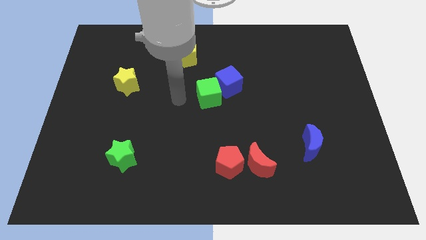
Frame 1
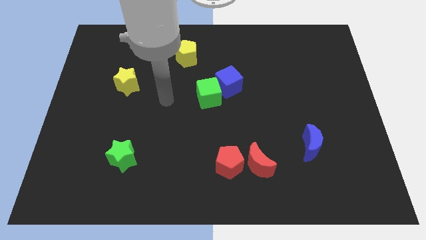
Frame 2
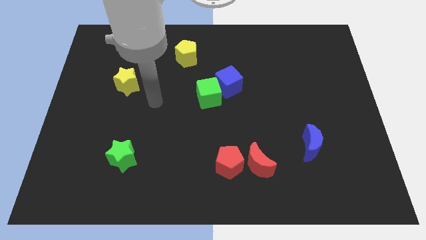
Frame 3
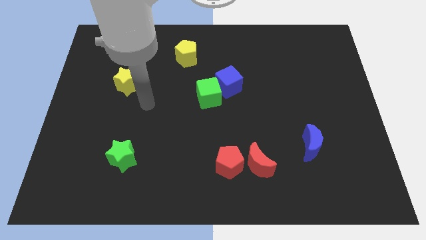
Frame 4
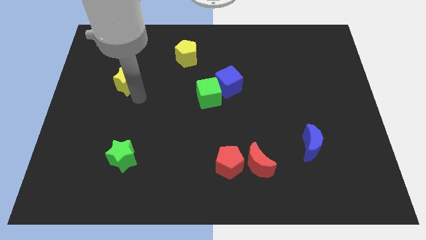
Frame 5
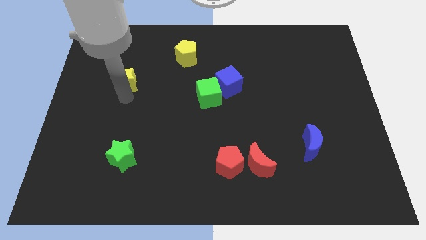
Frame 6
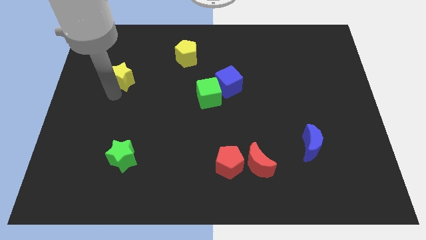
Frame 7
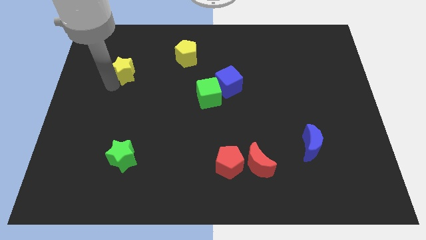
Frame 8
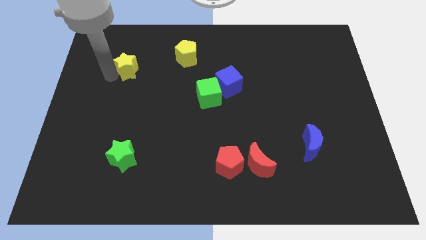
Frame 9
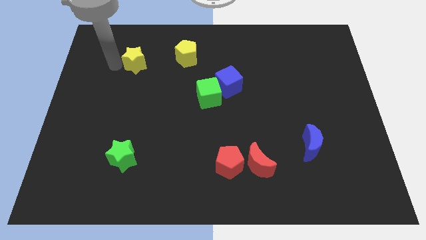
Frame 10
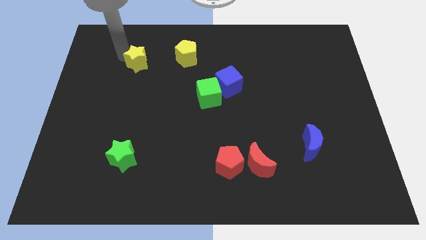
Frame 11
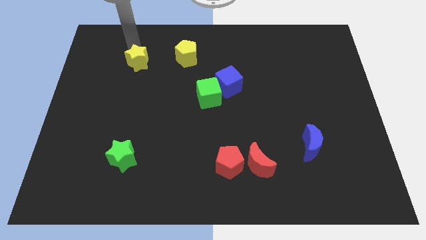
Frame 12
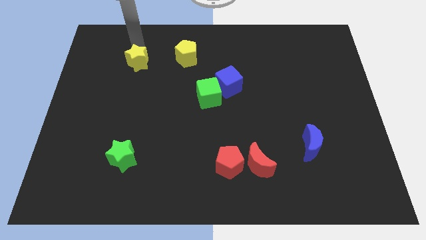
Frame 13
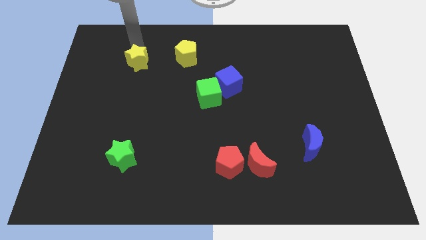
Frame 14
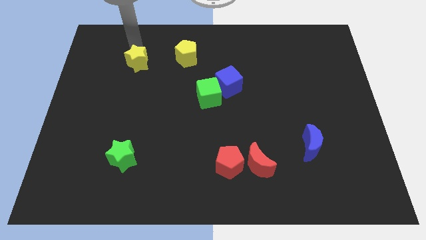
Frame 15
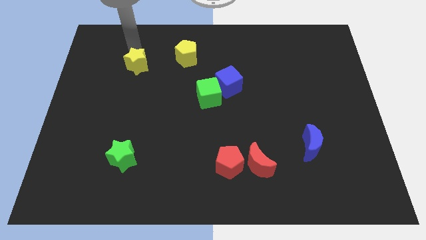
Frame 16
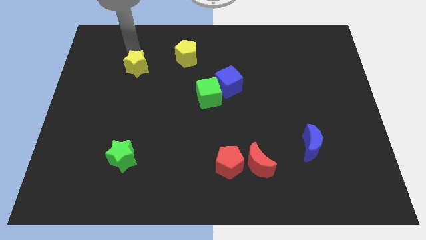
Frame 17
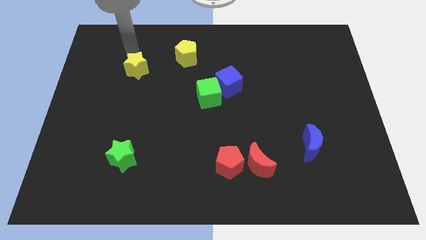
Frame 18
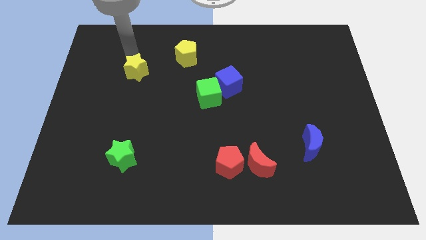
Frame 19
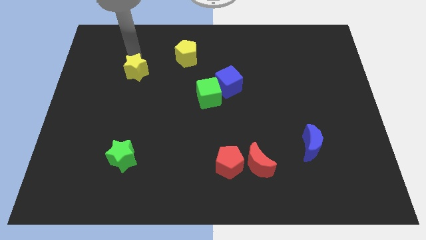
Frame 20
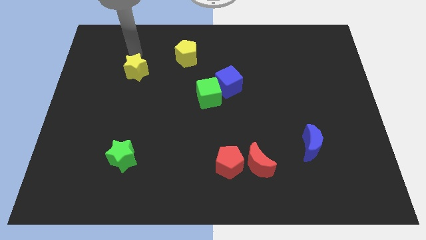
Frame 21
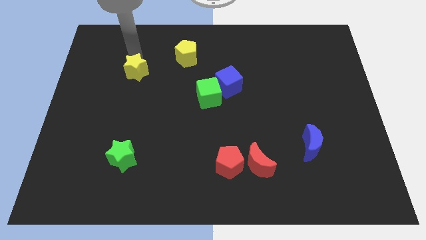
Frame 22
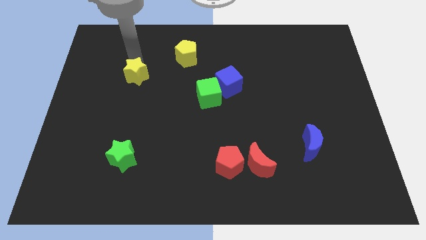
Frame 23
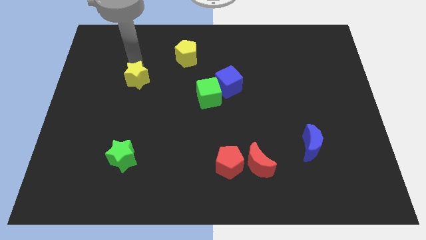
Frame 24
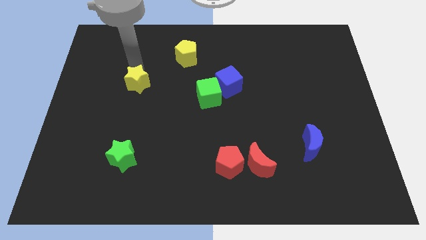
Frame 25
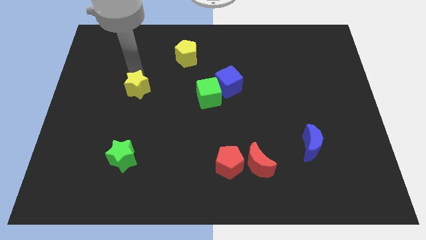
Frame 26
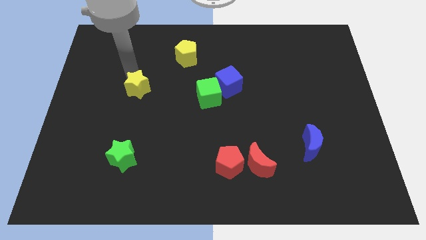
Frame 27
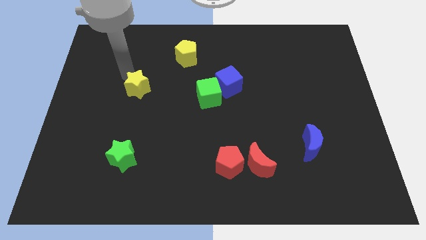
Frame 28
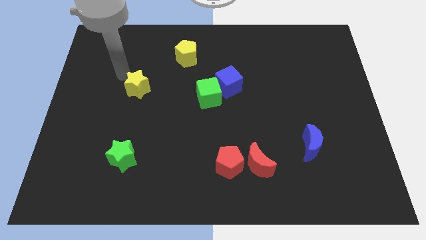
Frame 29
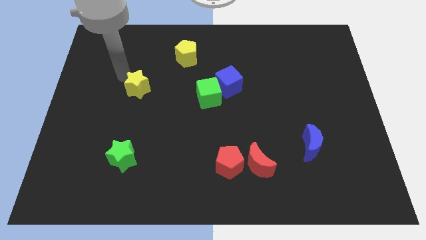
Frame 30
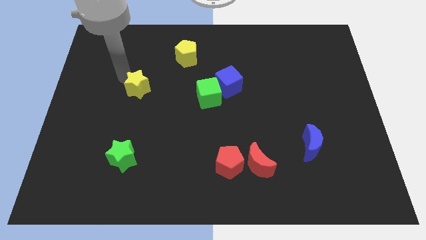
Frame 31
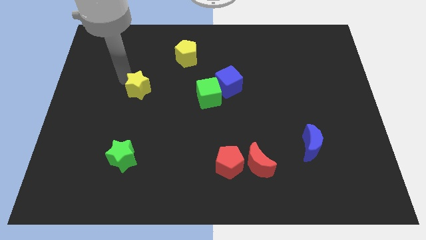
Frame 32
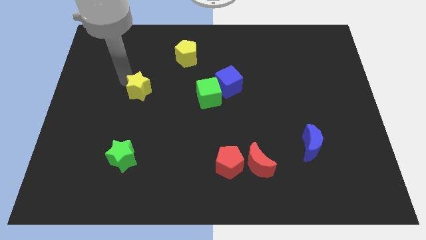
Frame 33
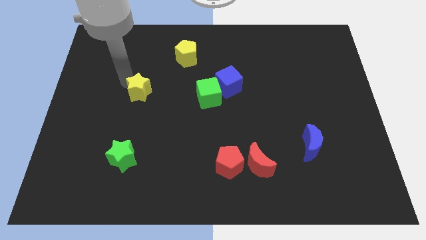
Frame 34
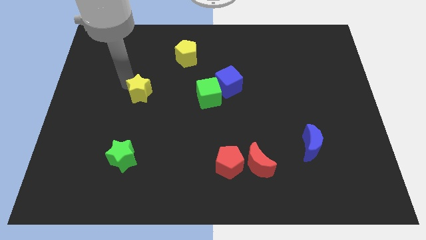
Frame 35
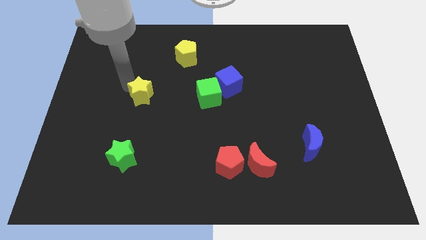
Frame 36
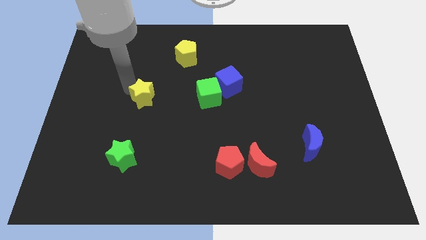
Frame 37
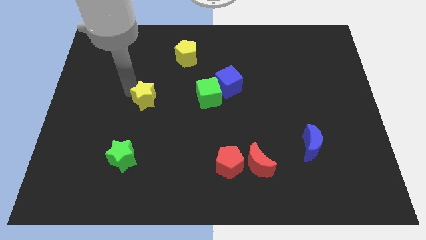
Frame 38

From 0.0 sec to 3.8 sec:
slightly slide the yellow star diagonally down and right

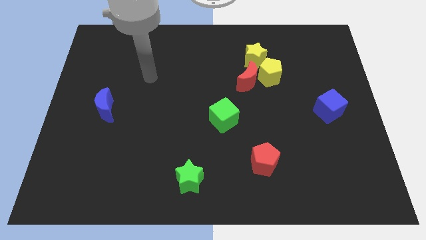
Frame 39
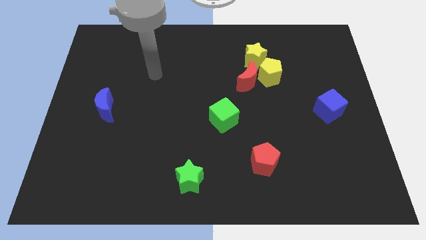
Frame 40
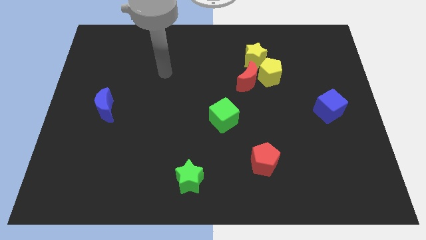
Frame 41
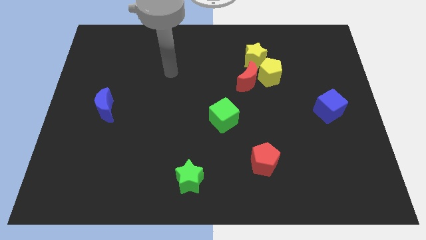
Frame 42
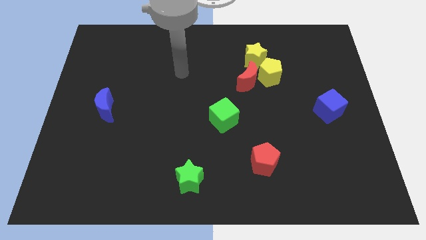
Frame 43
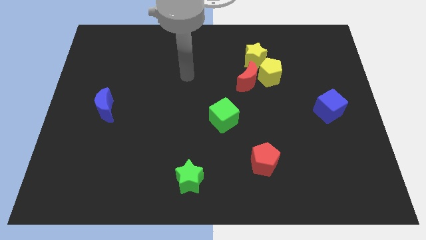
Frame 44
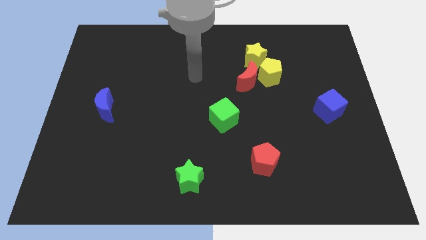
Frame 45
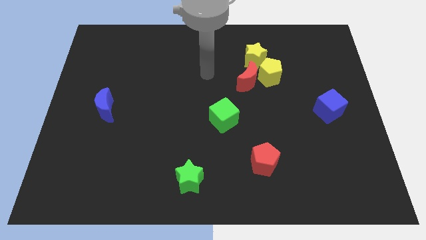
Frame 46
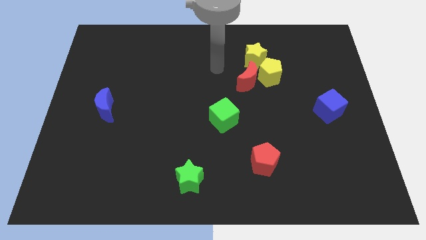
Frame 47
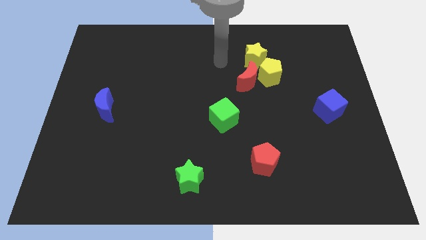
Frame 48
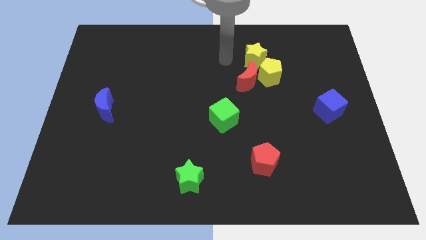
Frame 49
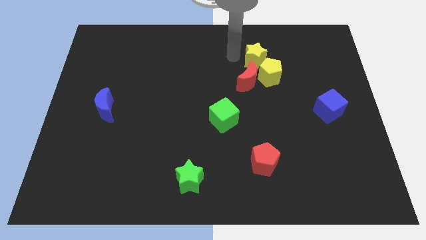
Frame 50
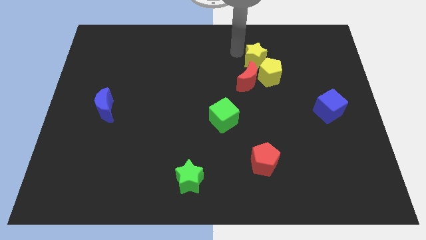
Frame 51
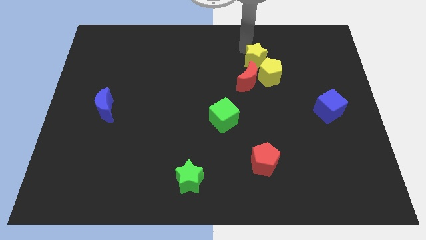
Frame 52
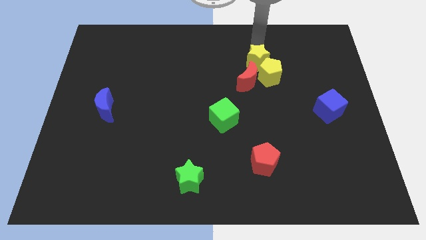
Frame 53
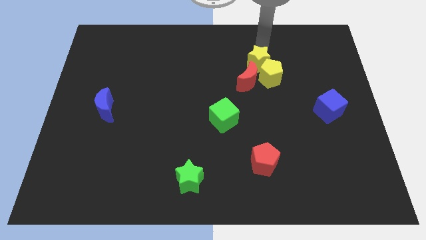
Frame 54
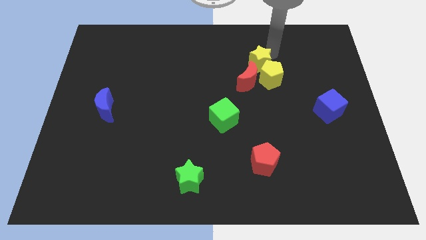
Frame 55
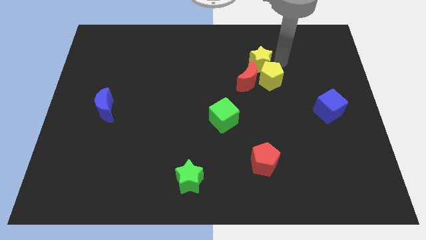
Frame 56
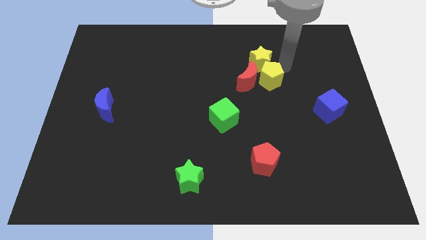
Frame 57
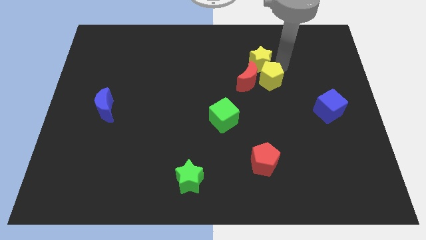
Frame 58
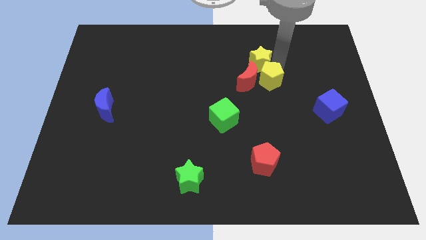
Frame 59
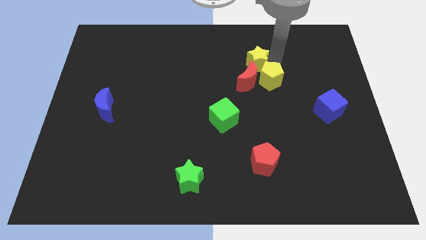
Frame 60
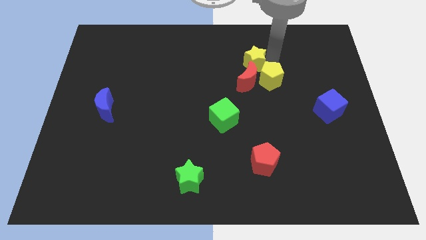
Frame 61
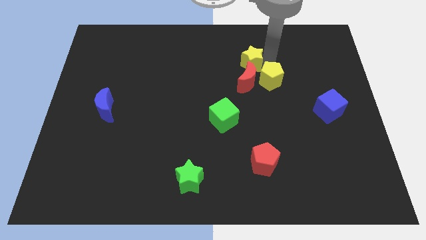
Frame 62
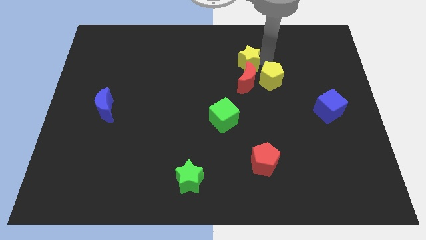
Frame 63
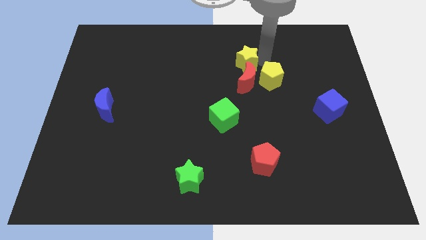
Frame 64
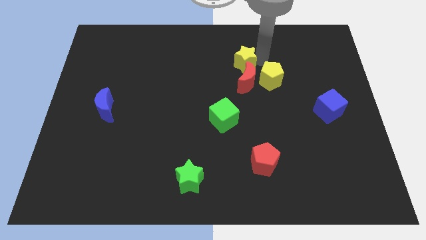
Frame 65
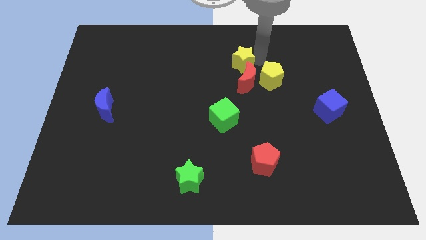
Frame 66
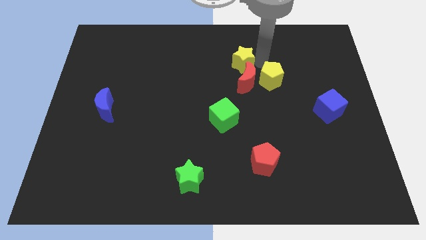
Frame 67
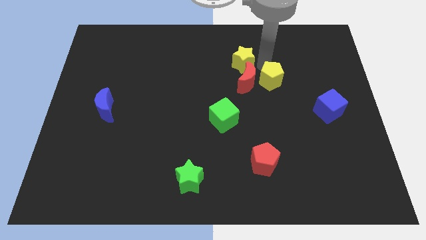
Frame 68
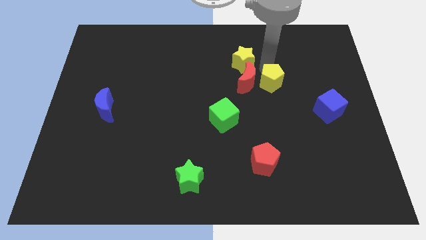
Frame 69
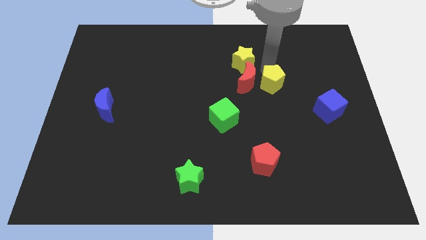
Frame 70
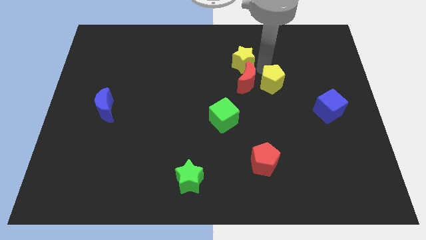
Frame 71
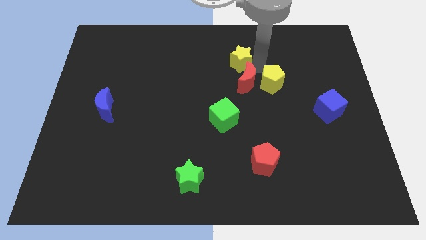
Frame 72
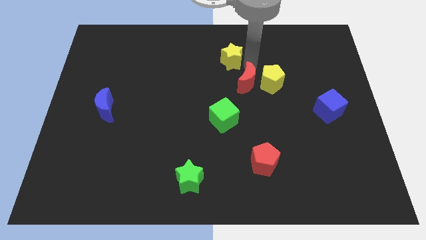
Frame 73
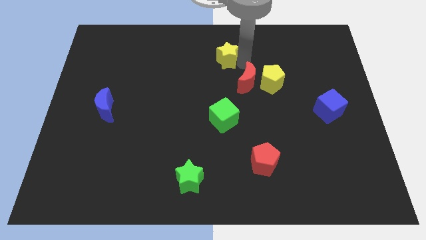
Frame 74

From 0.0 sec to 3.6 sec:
slightly slide the yellow star to the left

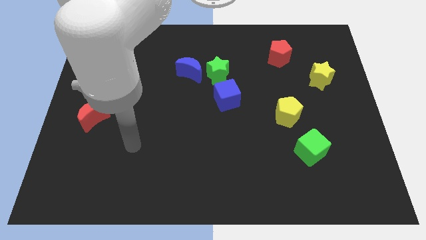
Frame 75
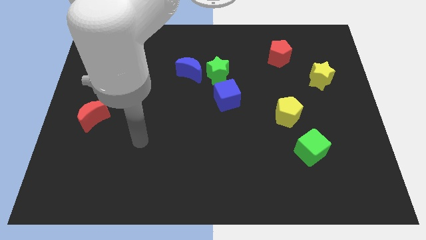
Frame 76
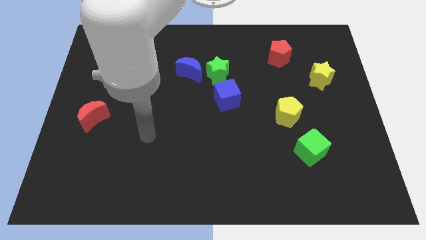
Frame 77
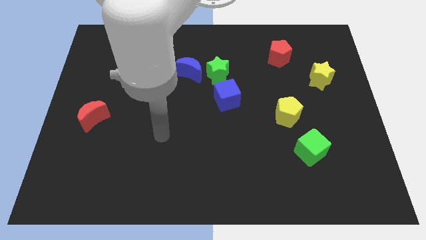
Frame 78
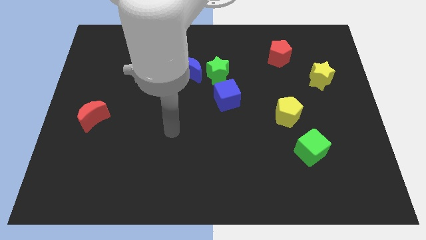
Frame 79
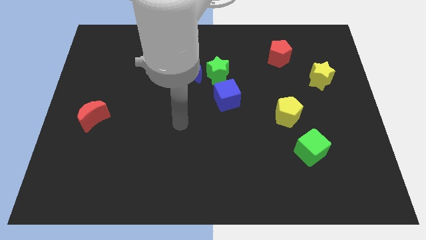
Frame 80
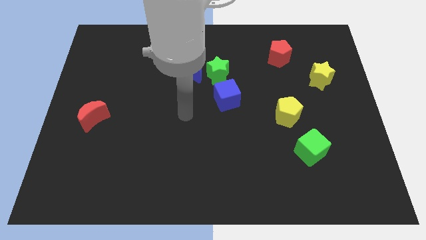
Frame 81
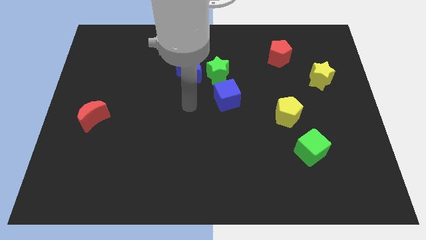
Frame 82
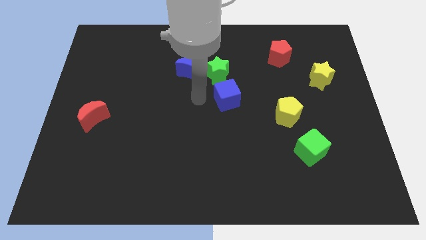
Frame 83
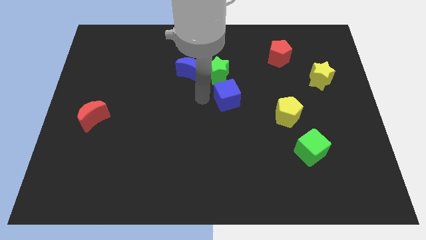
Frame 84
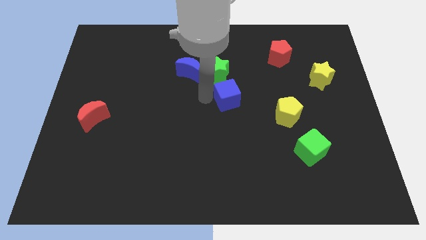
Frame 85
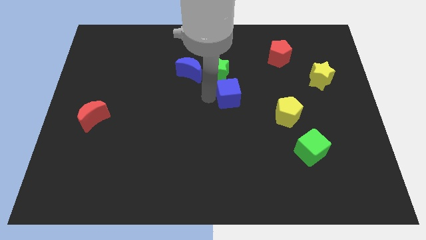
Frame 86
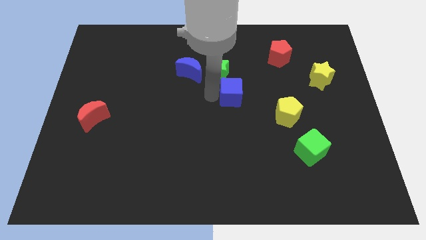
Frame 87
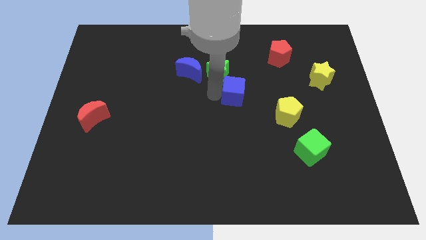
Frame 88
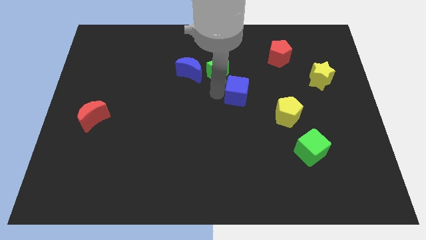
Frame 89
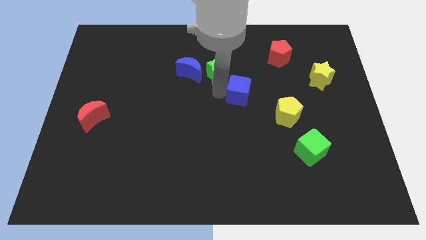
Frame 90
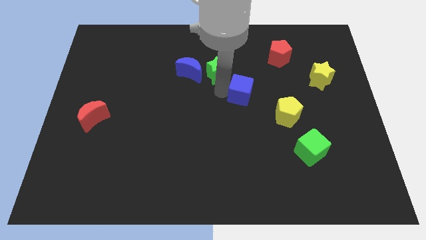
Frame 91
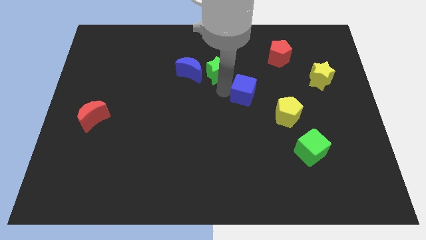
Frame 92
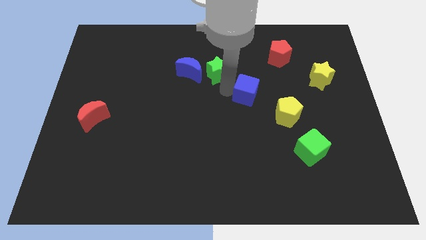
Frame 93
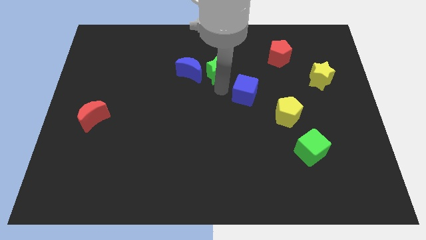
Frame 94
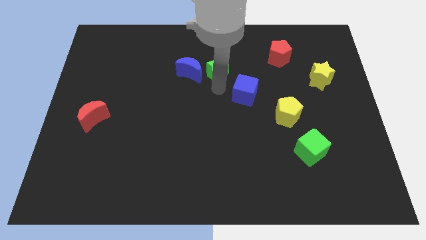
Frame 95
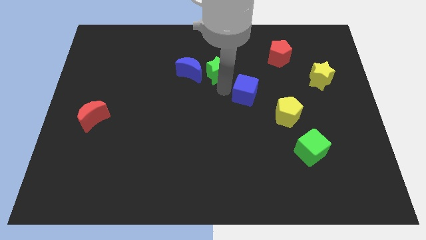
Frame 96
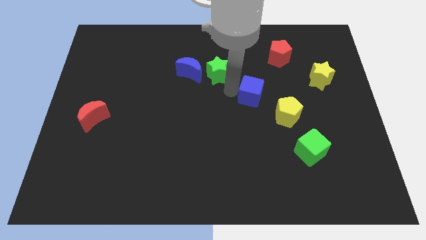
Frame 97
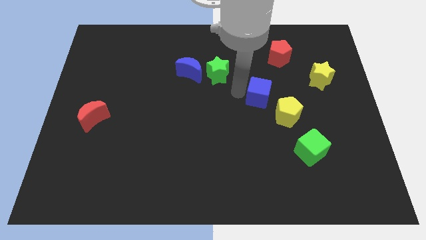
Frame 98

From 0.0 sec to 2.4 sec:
slightly move the blue cube to the right
